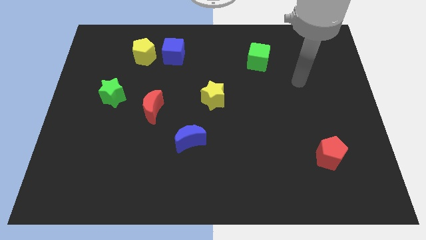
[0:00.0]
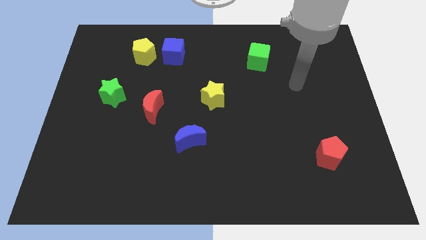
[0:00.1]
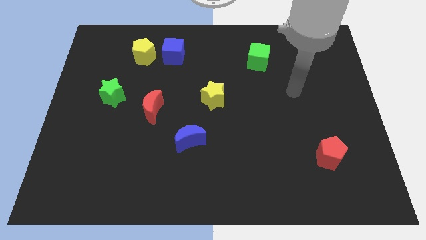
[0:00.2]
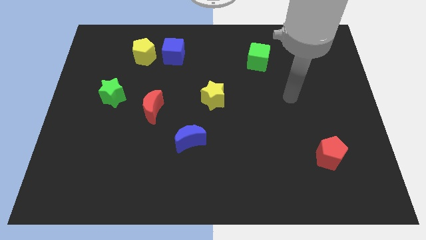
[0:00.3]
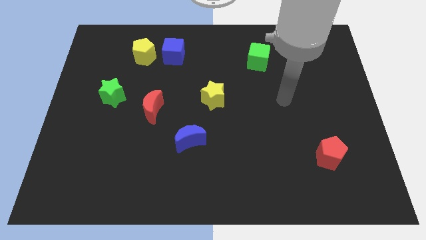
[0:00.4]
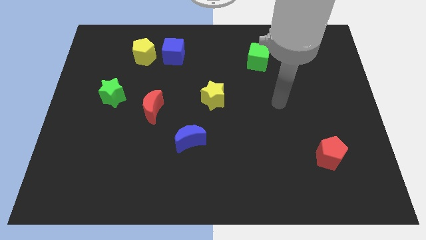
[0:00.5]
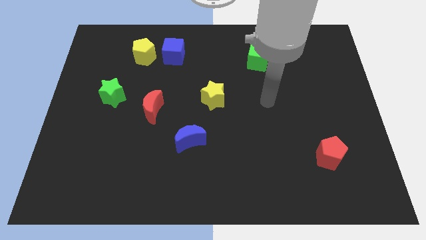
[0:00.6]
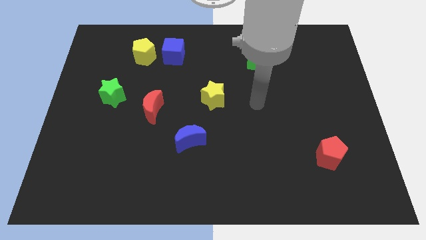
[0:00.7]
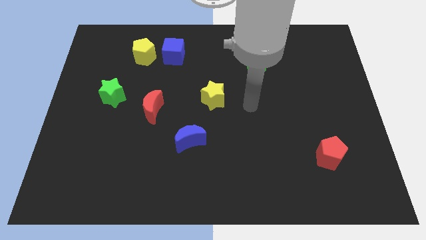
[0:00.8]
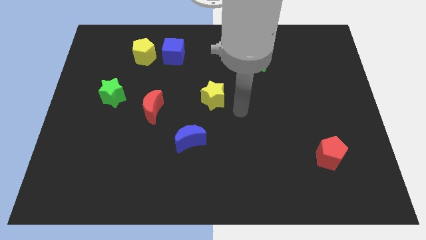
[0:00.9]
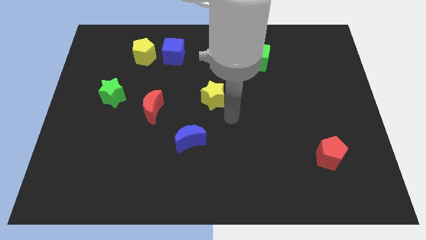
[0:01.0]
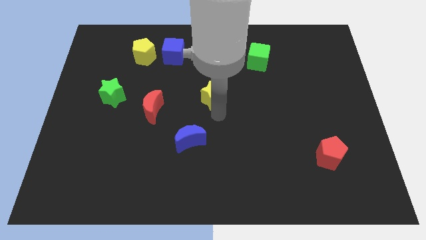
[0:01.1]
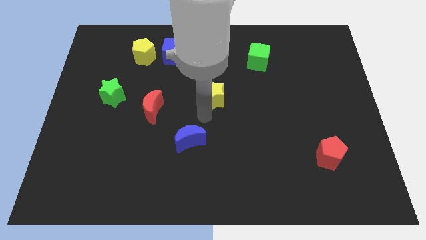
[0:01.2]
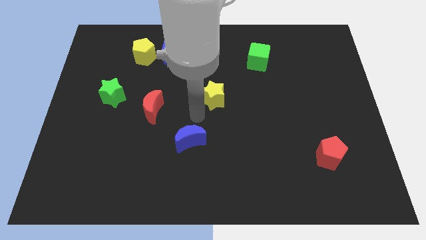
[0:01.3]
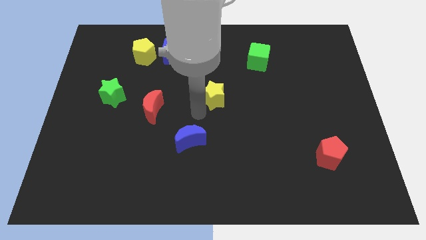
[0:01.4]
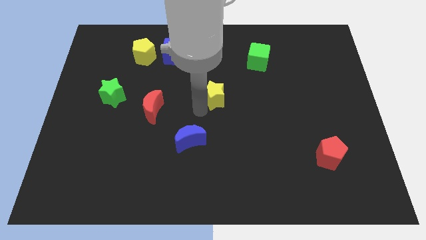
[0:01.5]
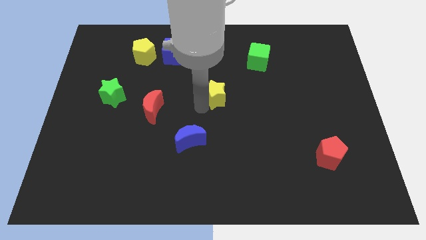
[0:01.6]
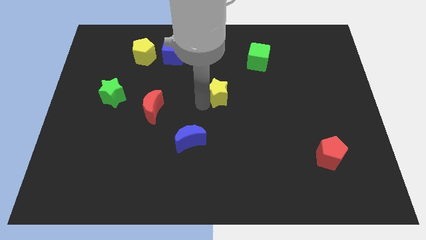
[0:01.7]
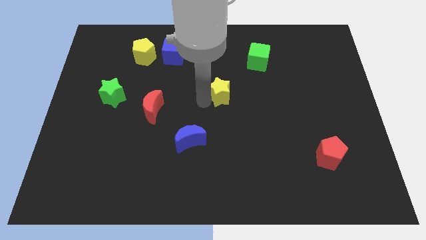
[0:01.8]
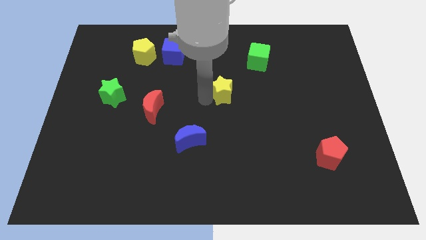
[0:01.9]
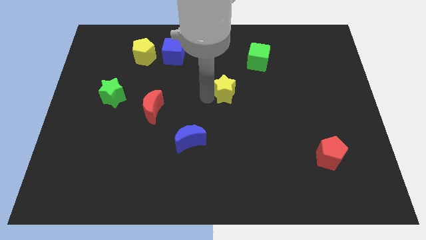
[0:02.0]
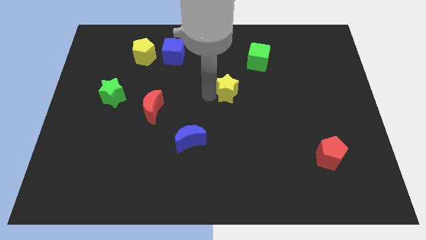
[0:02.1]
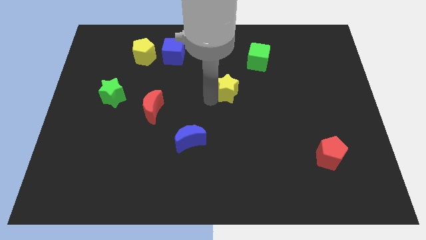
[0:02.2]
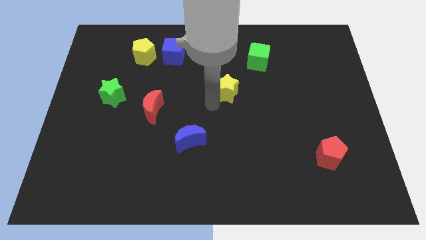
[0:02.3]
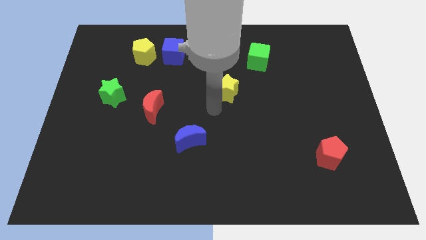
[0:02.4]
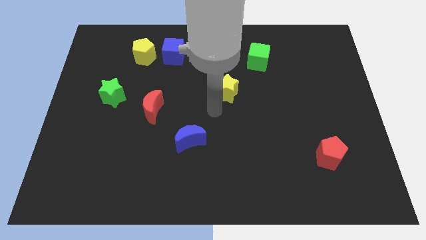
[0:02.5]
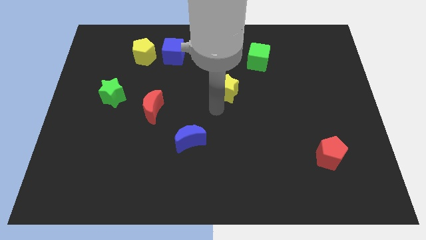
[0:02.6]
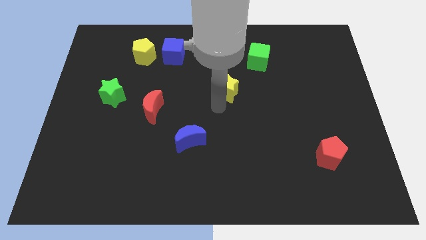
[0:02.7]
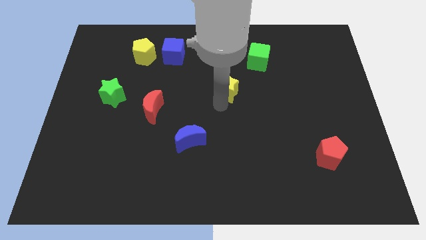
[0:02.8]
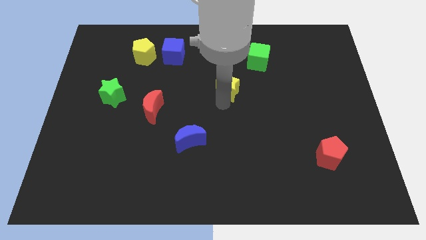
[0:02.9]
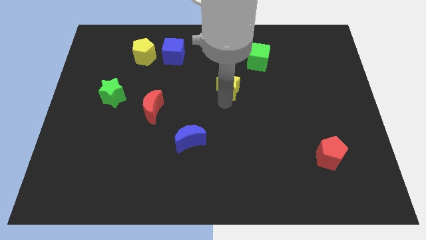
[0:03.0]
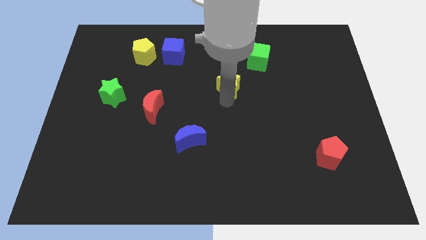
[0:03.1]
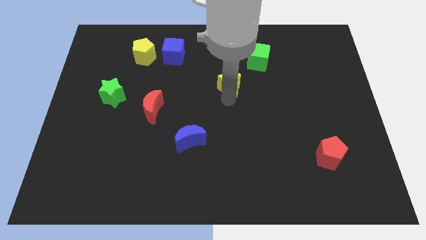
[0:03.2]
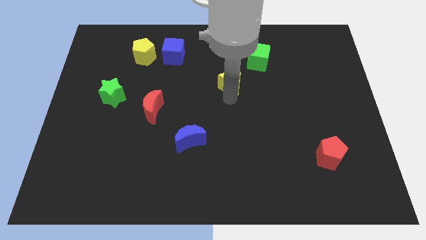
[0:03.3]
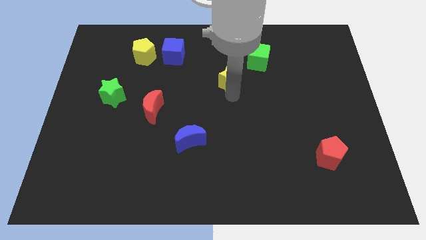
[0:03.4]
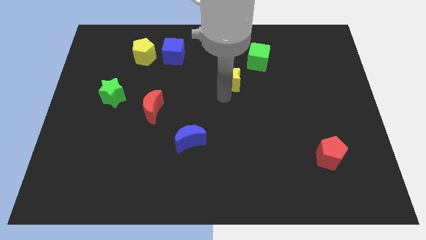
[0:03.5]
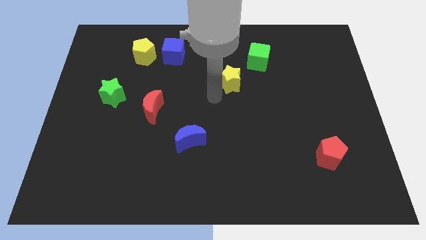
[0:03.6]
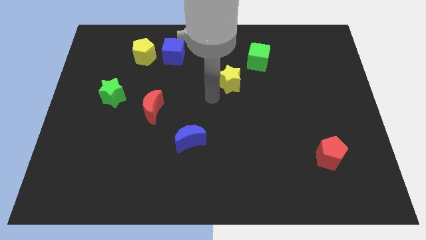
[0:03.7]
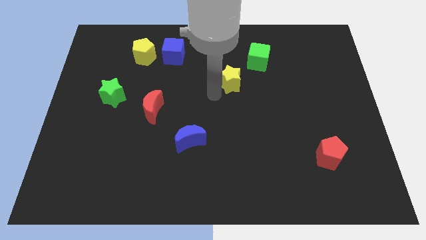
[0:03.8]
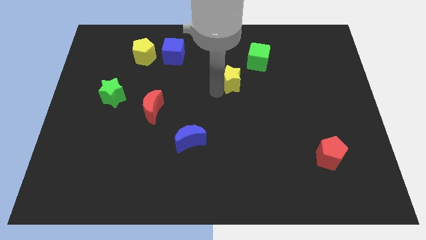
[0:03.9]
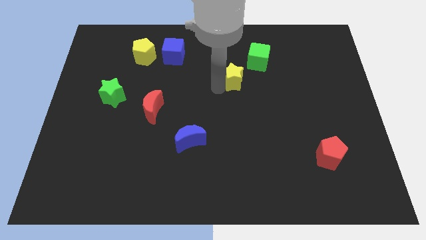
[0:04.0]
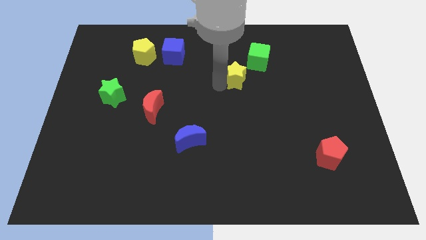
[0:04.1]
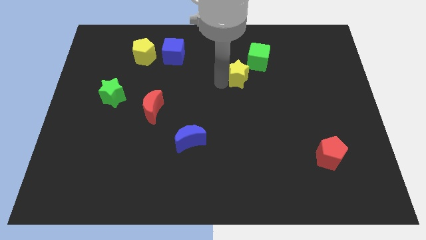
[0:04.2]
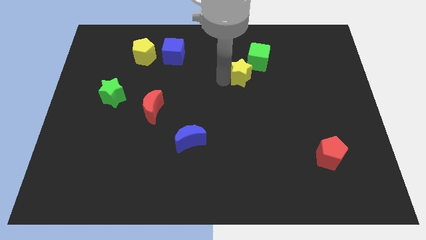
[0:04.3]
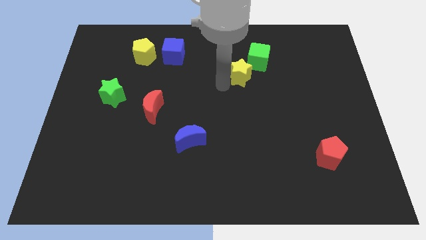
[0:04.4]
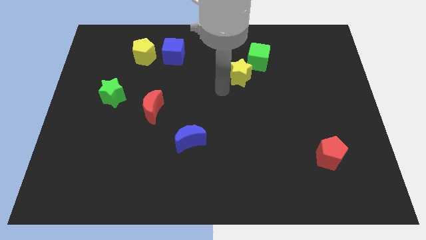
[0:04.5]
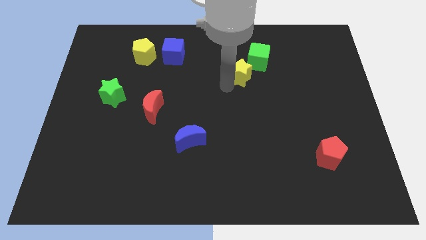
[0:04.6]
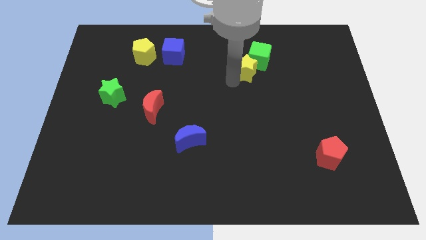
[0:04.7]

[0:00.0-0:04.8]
slide the yellow star towards the green cube

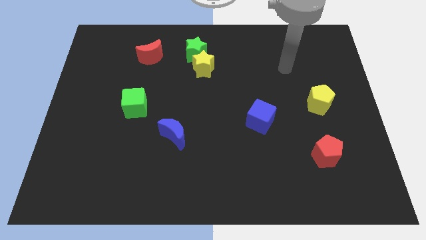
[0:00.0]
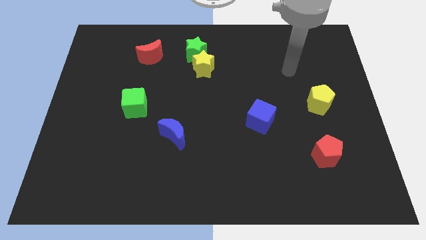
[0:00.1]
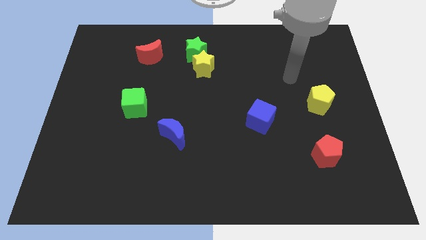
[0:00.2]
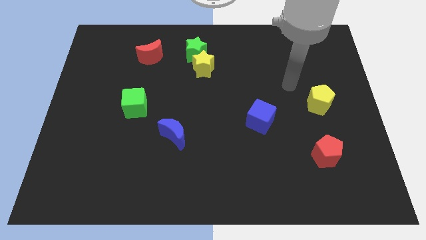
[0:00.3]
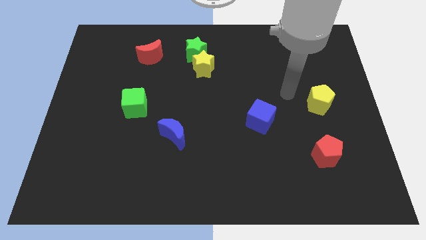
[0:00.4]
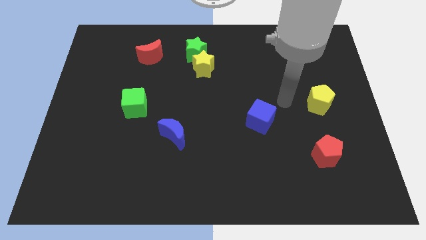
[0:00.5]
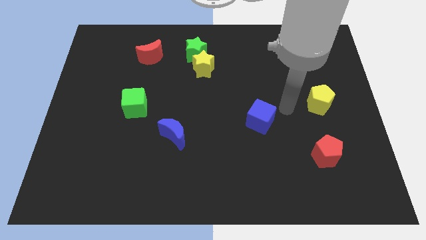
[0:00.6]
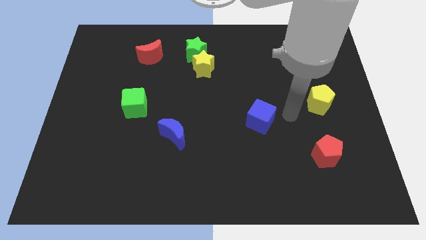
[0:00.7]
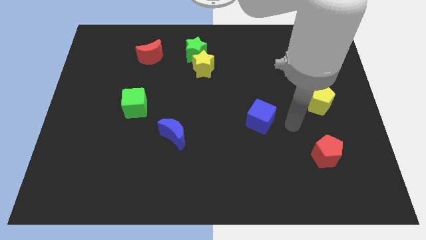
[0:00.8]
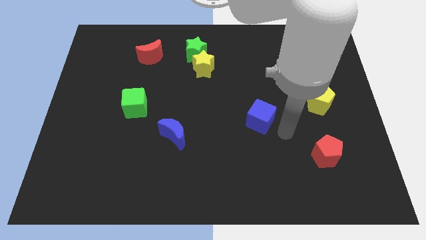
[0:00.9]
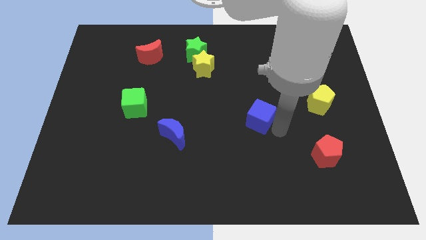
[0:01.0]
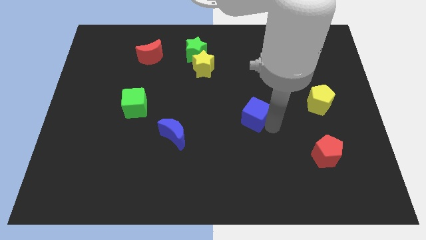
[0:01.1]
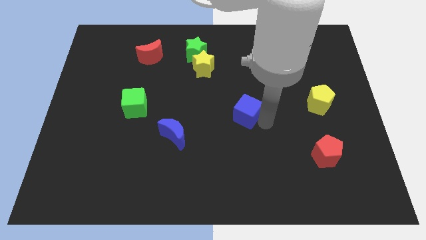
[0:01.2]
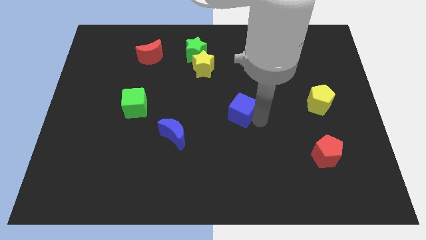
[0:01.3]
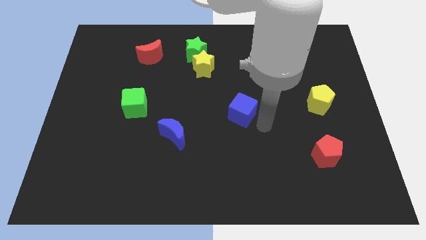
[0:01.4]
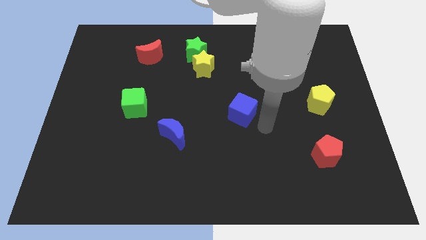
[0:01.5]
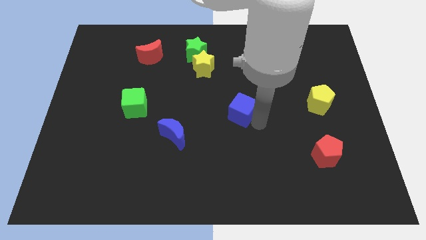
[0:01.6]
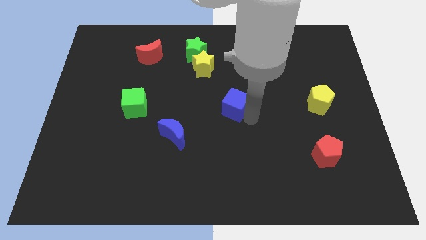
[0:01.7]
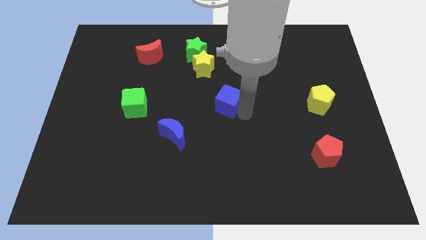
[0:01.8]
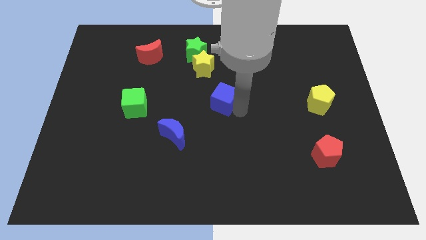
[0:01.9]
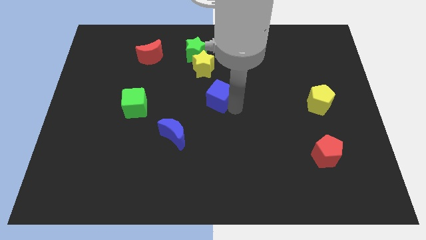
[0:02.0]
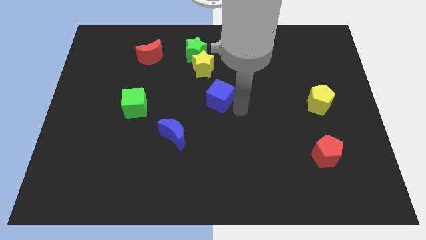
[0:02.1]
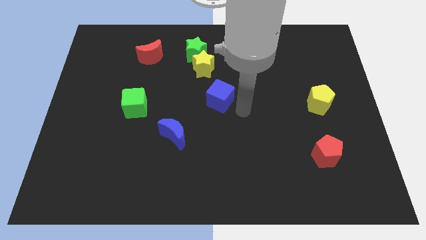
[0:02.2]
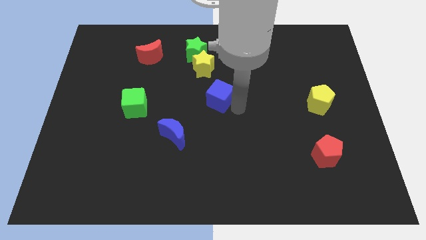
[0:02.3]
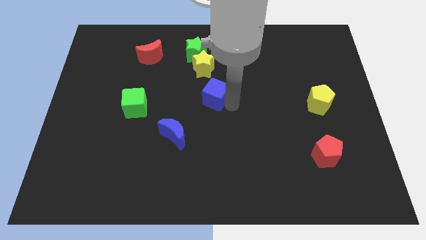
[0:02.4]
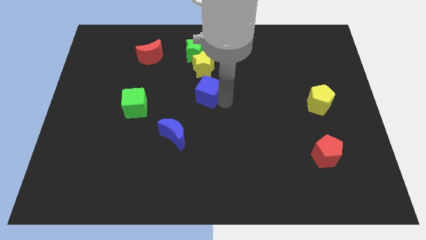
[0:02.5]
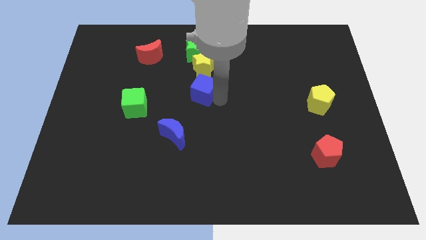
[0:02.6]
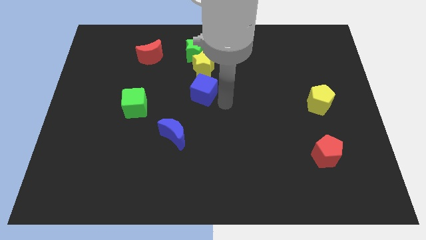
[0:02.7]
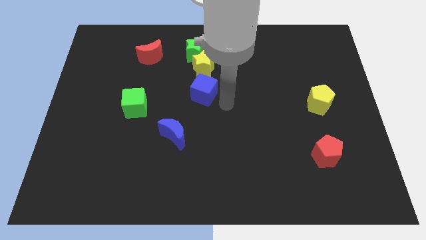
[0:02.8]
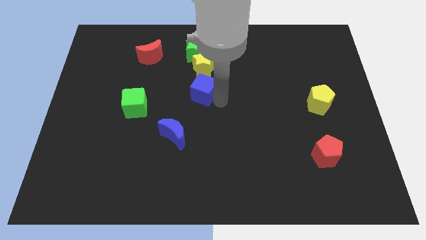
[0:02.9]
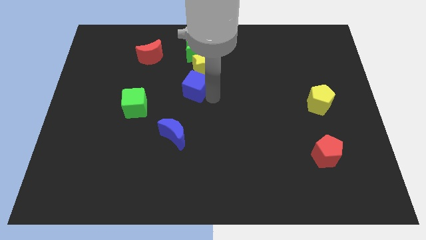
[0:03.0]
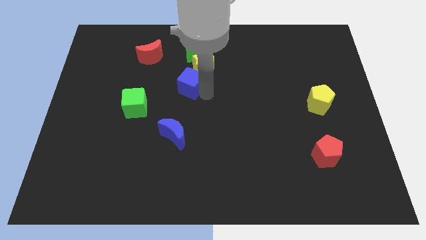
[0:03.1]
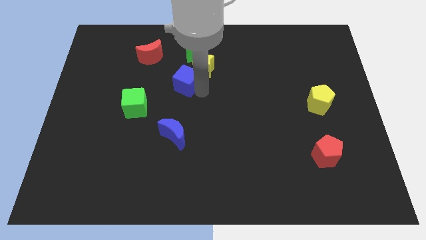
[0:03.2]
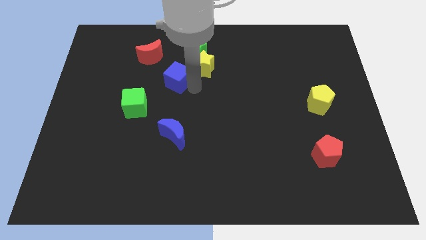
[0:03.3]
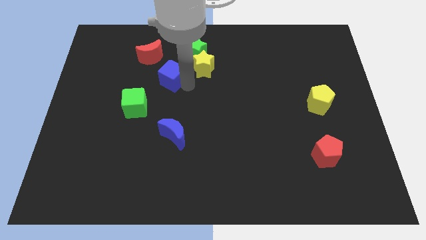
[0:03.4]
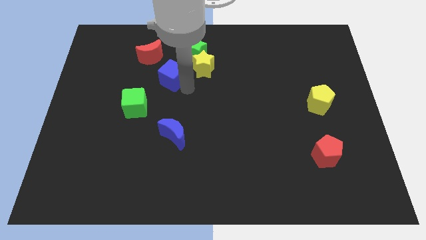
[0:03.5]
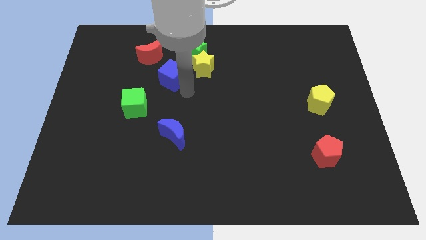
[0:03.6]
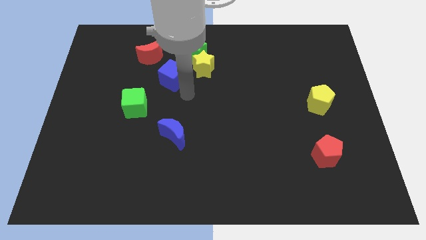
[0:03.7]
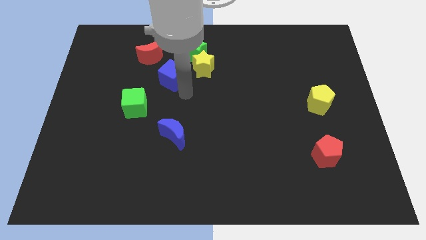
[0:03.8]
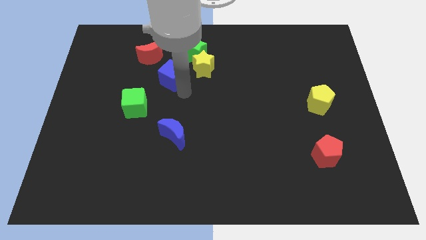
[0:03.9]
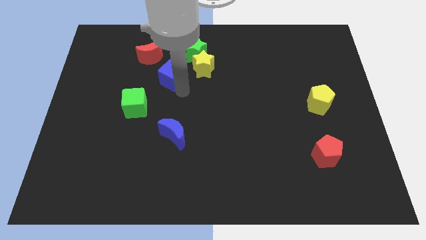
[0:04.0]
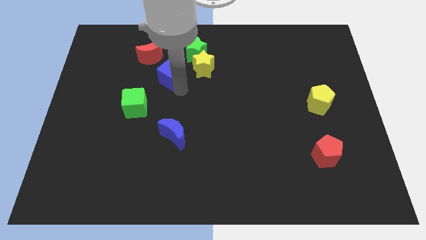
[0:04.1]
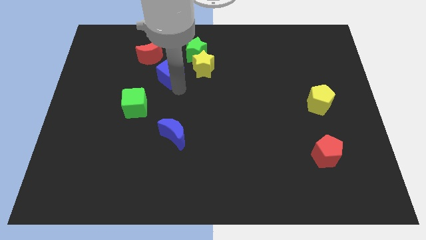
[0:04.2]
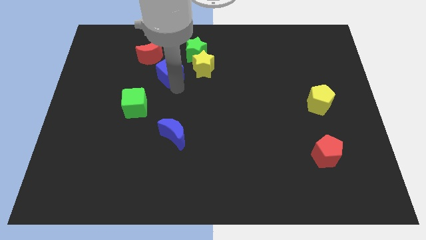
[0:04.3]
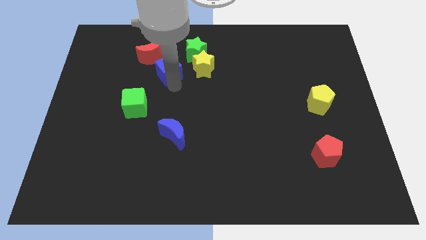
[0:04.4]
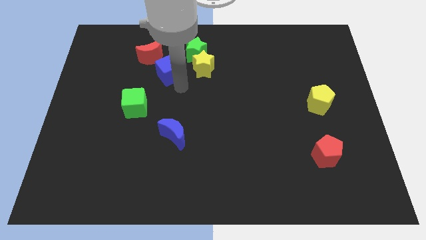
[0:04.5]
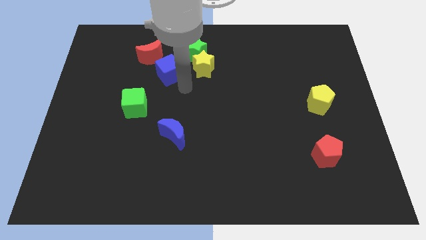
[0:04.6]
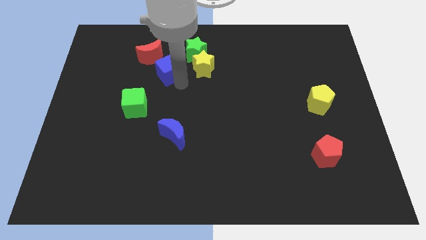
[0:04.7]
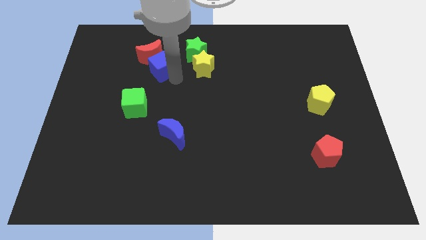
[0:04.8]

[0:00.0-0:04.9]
move the blue cube towards the red moon
